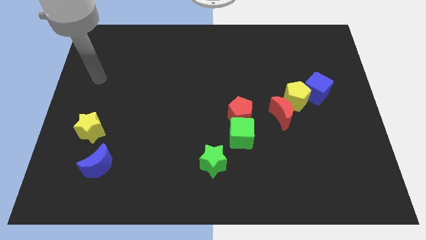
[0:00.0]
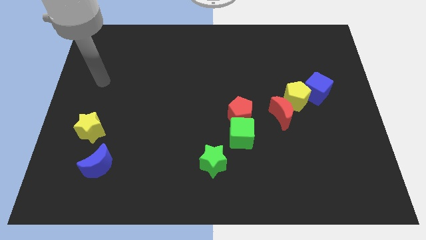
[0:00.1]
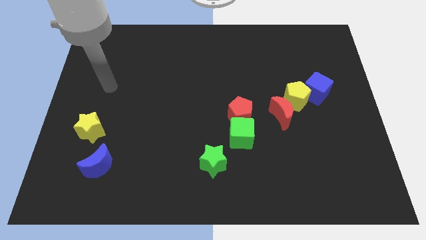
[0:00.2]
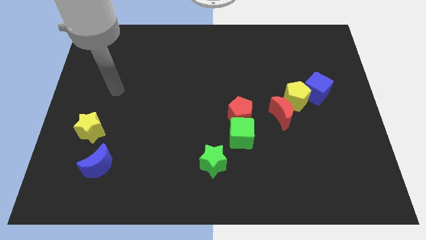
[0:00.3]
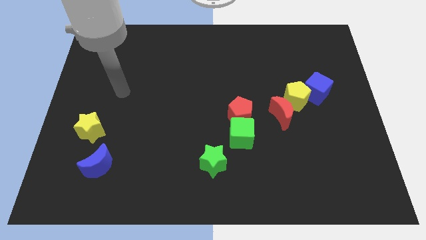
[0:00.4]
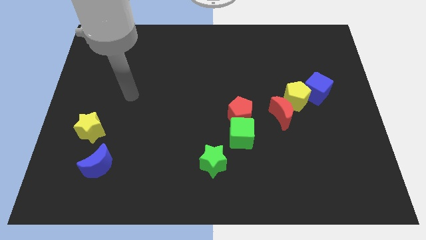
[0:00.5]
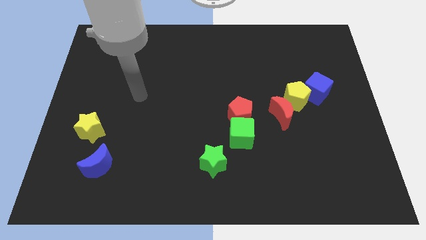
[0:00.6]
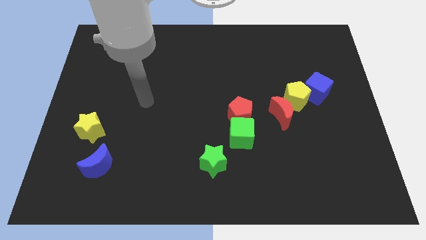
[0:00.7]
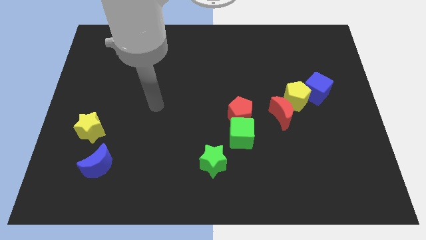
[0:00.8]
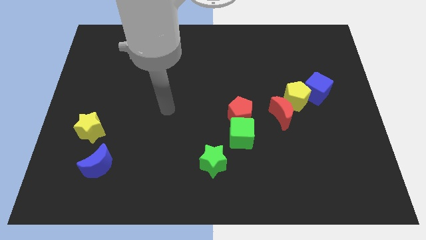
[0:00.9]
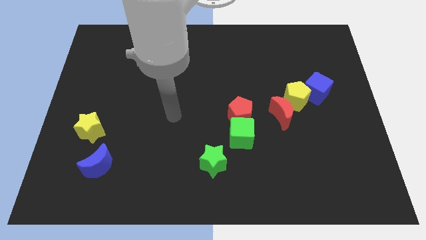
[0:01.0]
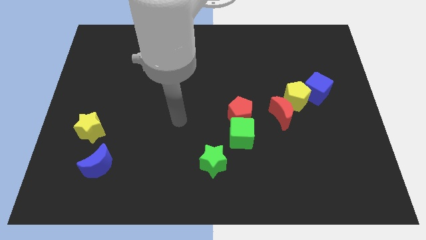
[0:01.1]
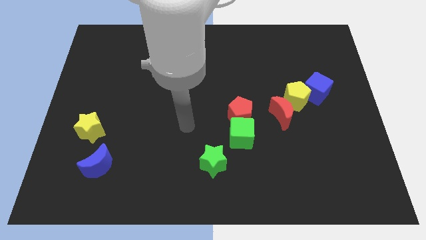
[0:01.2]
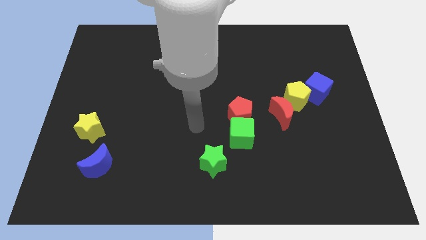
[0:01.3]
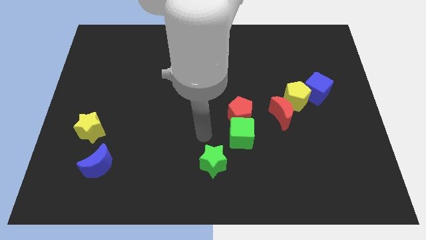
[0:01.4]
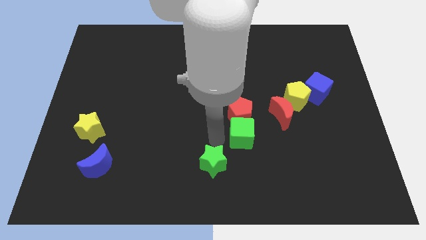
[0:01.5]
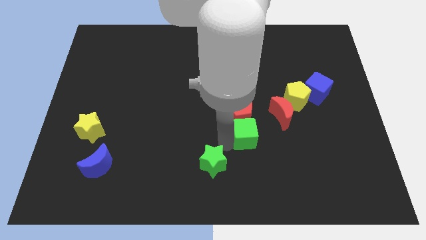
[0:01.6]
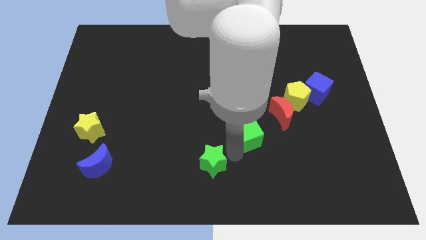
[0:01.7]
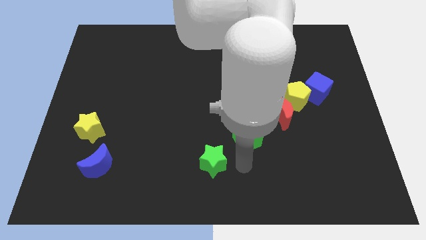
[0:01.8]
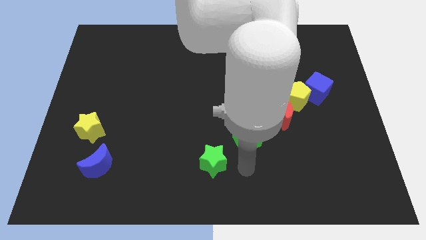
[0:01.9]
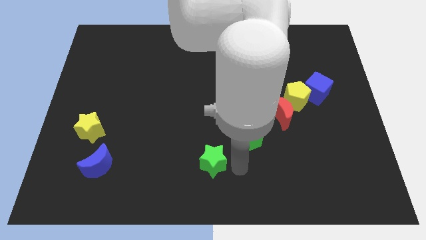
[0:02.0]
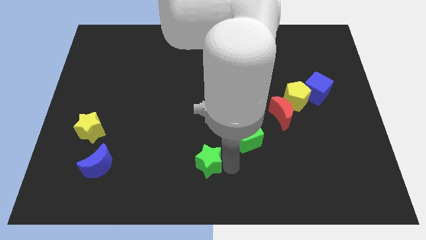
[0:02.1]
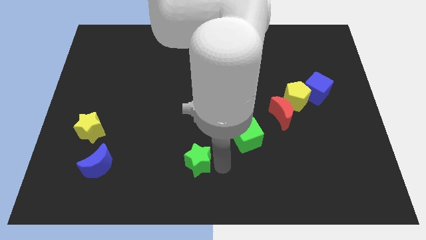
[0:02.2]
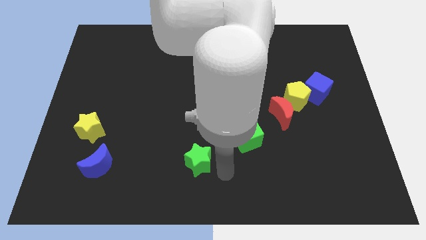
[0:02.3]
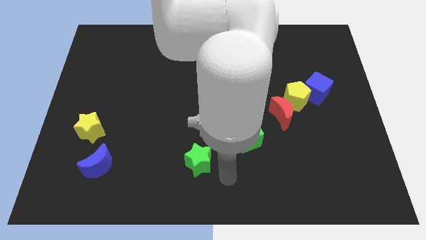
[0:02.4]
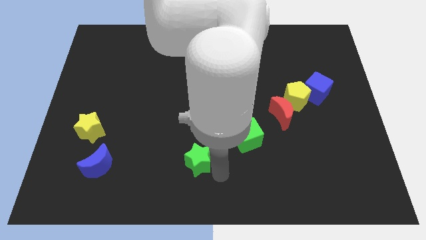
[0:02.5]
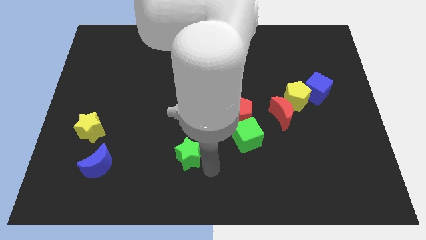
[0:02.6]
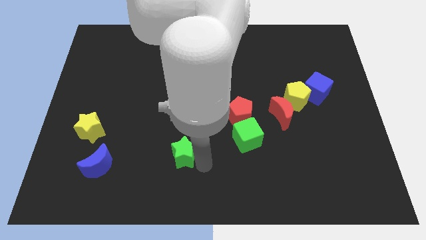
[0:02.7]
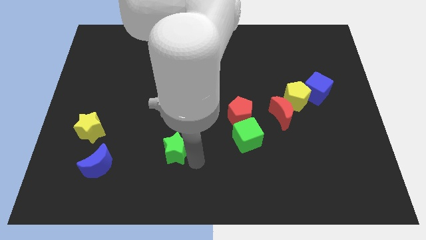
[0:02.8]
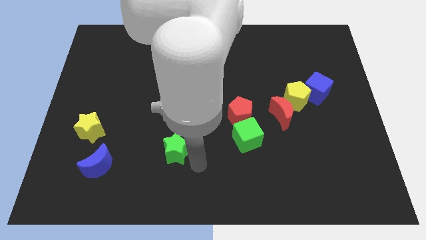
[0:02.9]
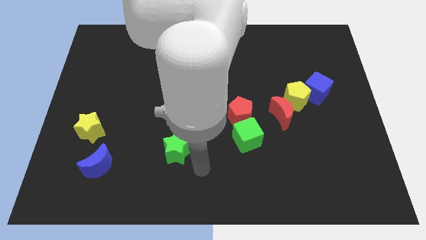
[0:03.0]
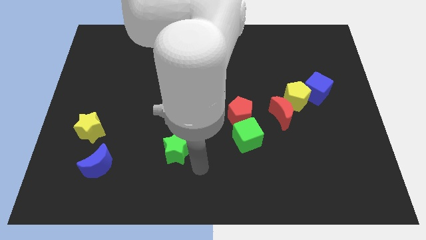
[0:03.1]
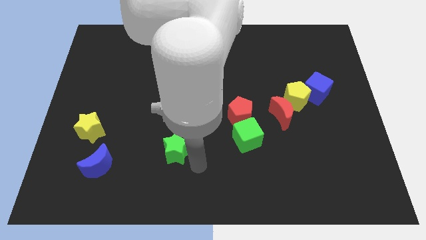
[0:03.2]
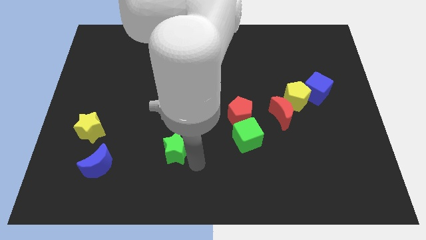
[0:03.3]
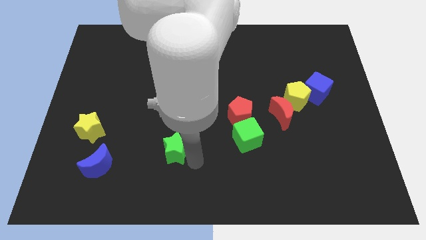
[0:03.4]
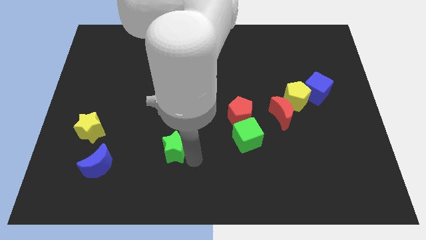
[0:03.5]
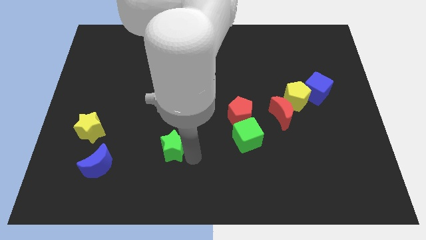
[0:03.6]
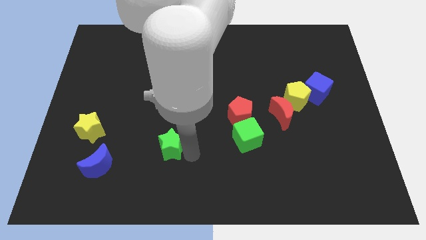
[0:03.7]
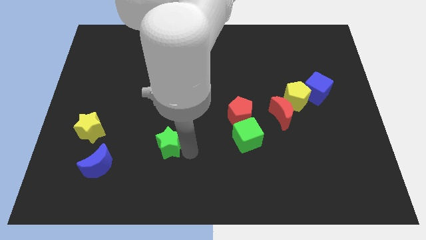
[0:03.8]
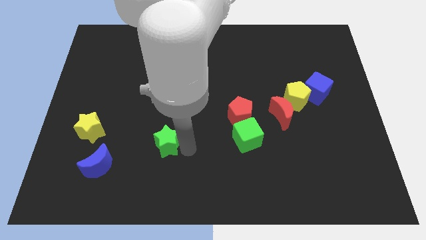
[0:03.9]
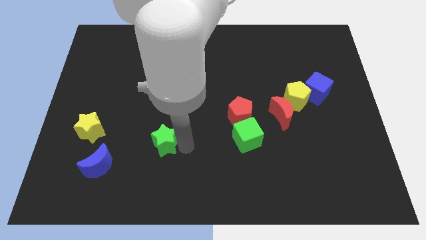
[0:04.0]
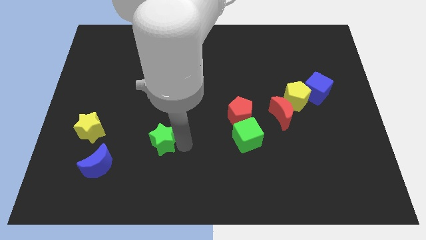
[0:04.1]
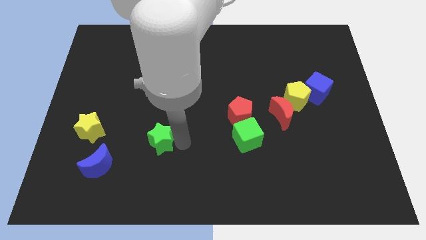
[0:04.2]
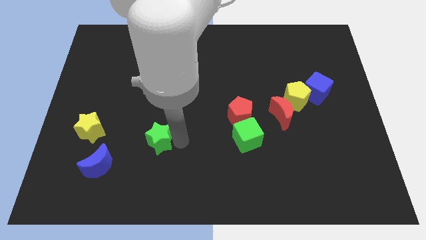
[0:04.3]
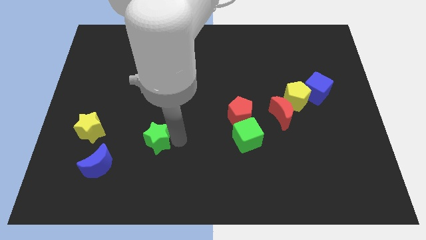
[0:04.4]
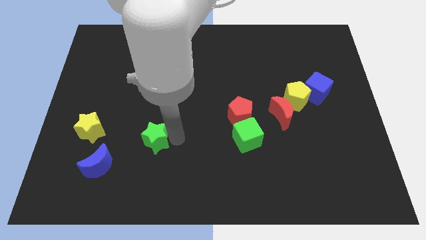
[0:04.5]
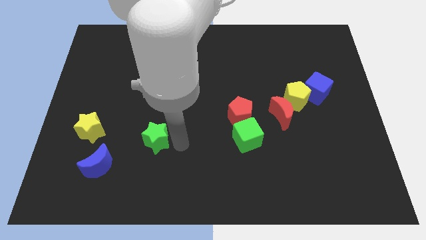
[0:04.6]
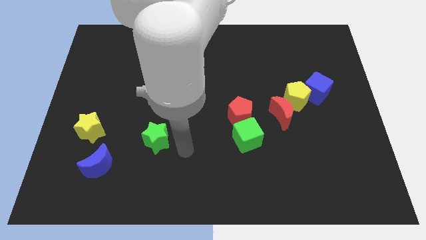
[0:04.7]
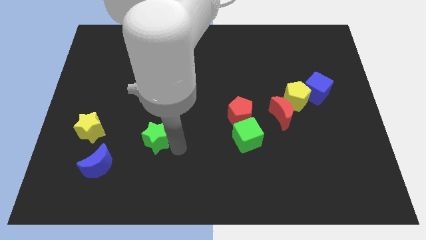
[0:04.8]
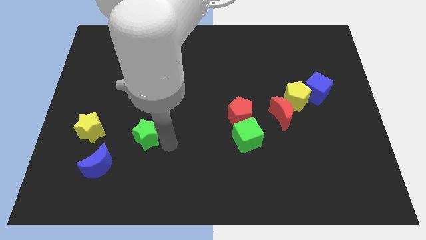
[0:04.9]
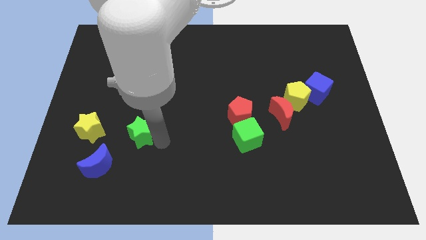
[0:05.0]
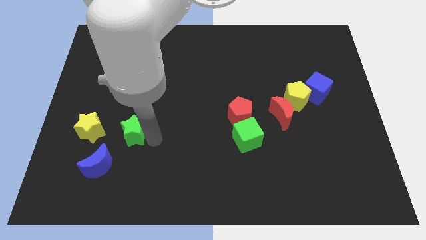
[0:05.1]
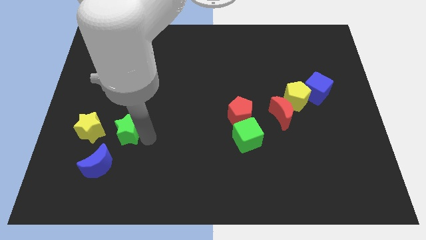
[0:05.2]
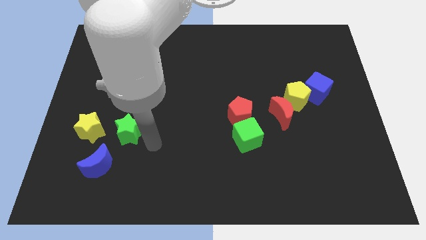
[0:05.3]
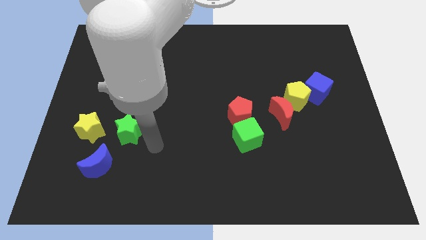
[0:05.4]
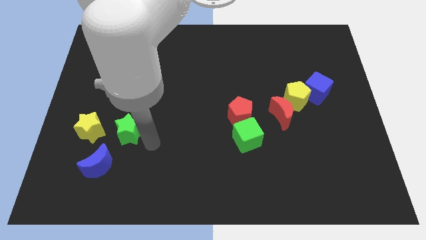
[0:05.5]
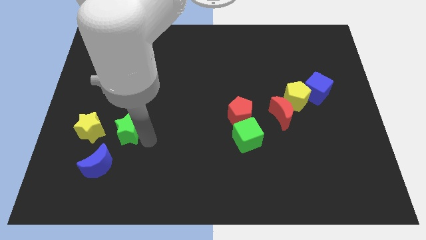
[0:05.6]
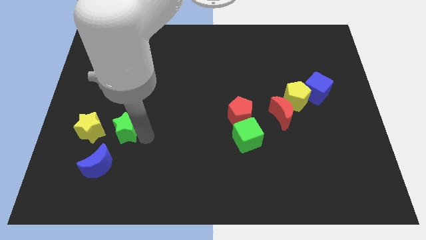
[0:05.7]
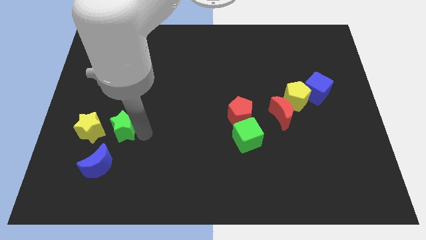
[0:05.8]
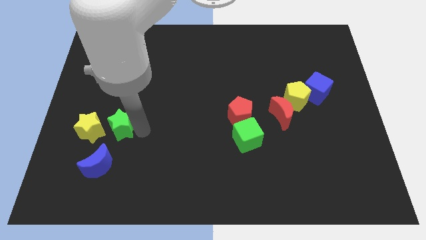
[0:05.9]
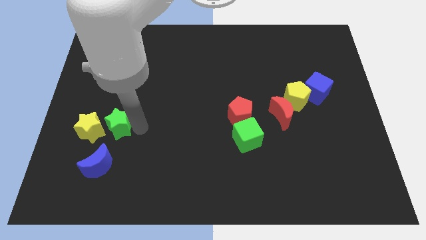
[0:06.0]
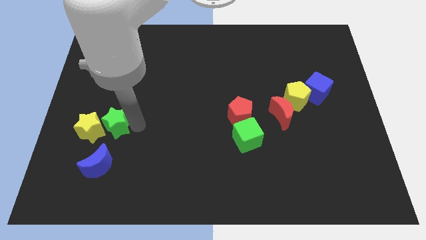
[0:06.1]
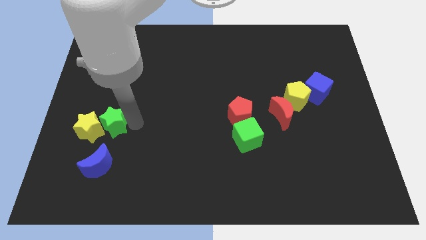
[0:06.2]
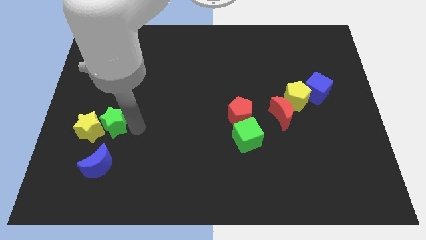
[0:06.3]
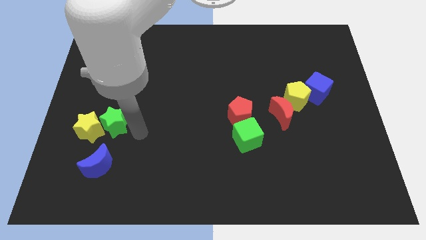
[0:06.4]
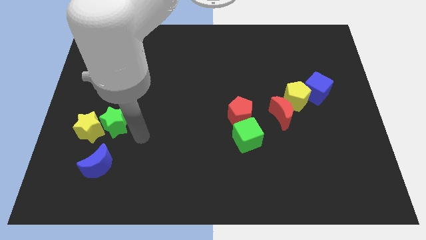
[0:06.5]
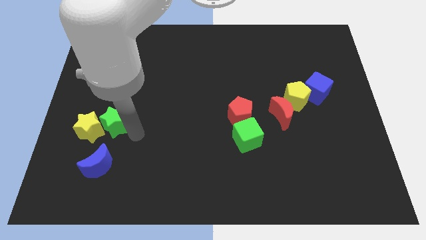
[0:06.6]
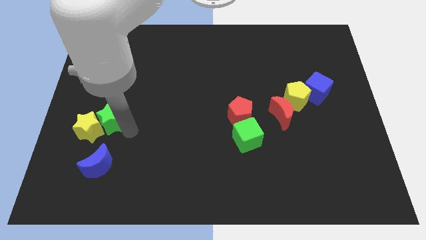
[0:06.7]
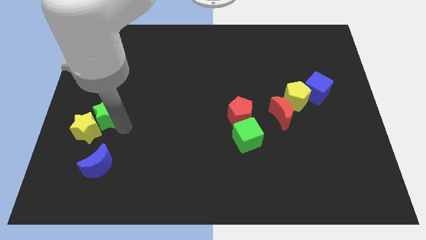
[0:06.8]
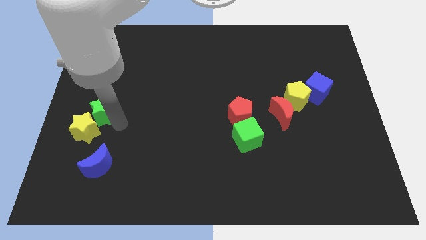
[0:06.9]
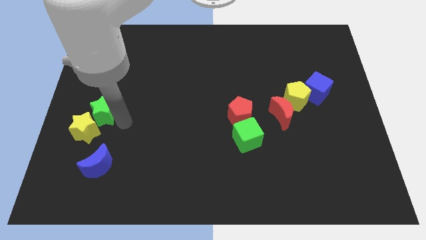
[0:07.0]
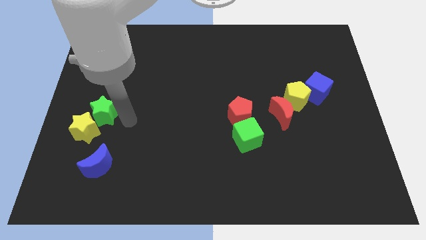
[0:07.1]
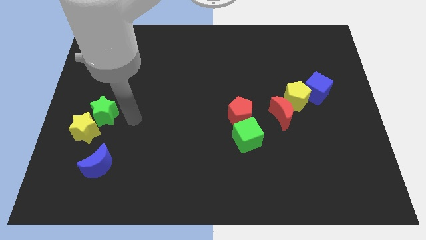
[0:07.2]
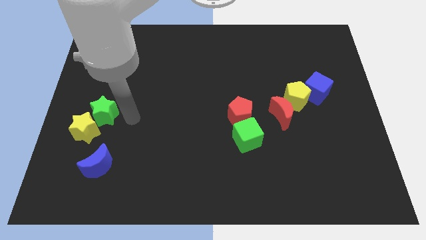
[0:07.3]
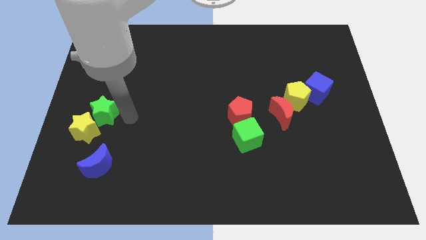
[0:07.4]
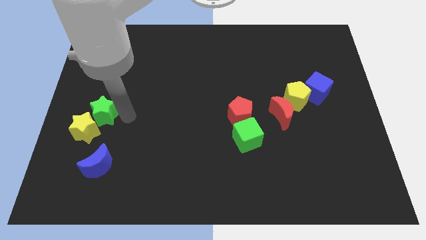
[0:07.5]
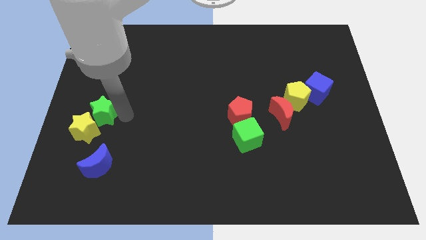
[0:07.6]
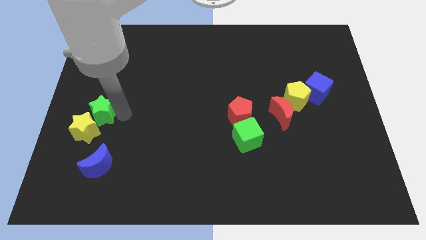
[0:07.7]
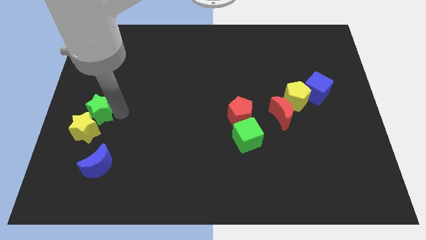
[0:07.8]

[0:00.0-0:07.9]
put the green star to the left side of the board
